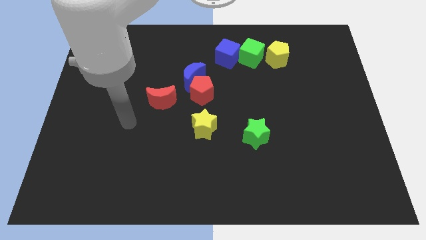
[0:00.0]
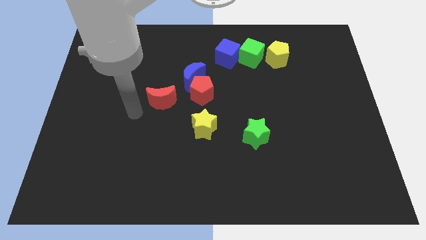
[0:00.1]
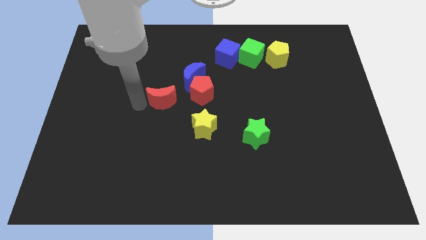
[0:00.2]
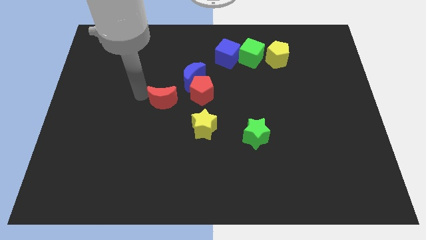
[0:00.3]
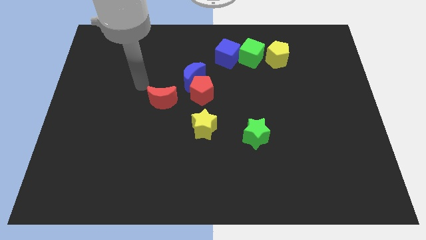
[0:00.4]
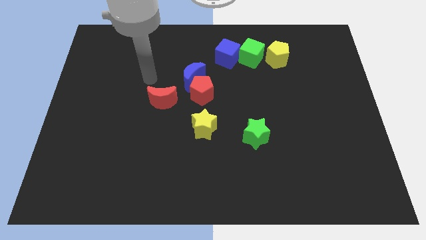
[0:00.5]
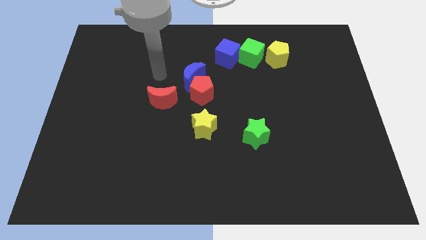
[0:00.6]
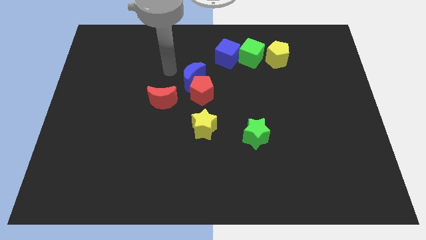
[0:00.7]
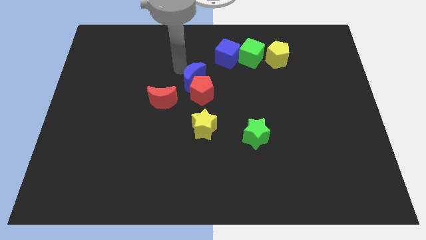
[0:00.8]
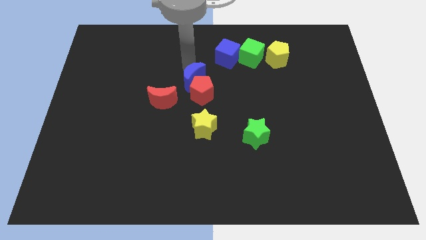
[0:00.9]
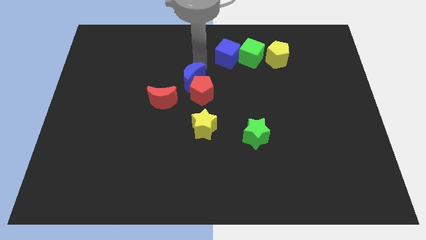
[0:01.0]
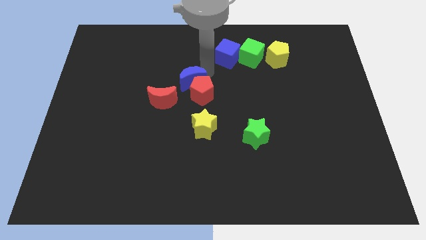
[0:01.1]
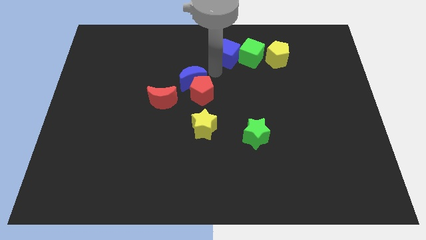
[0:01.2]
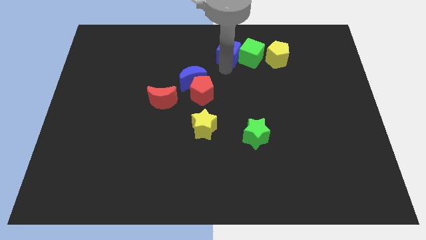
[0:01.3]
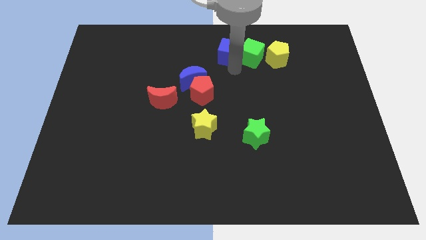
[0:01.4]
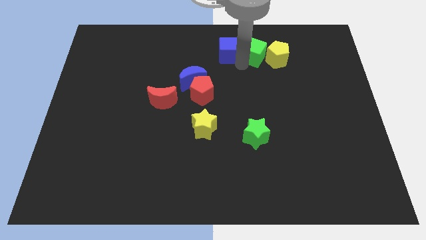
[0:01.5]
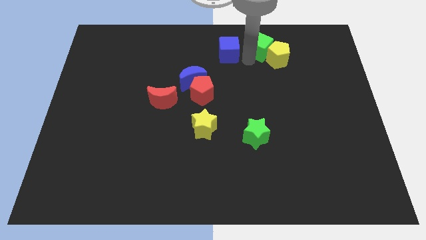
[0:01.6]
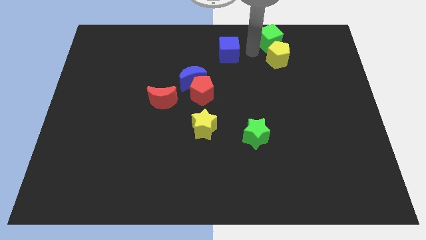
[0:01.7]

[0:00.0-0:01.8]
pull the blue cube apart from the green cube

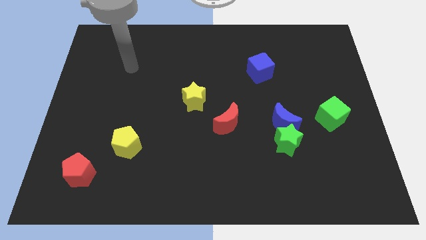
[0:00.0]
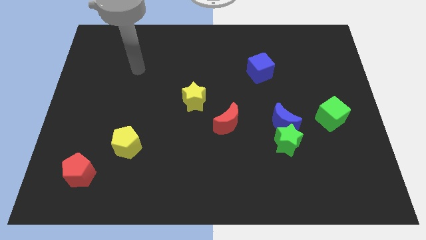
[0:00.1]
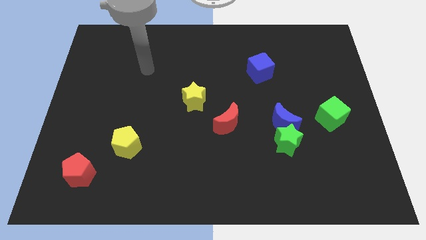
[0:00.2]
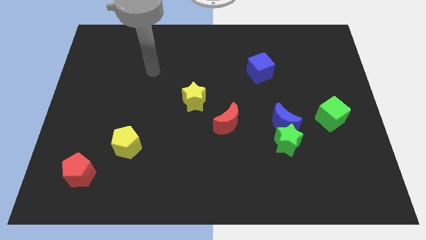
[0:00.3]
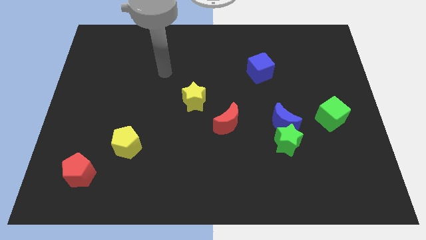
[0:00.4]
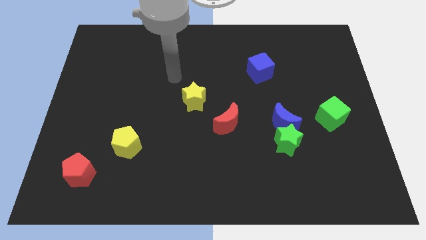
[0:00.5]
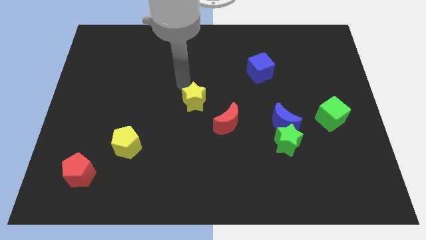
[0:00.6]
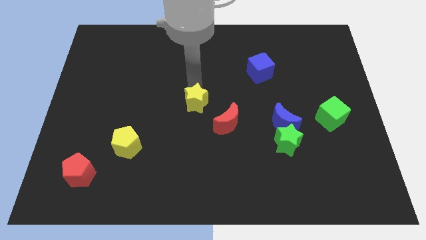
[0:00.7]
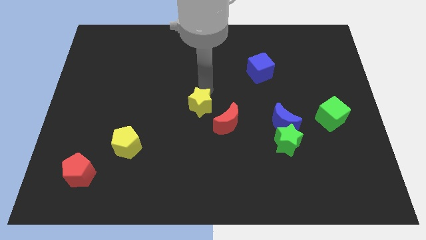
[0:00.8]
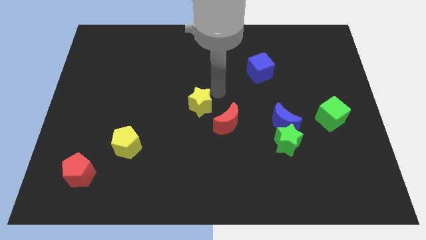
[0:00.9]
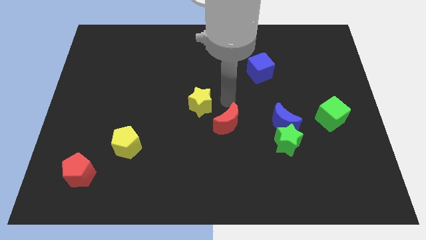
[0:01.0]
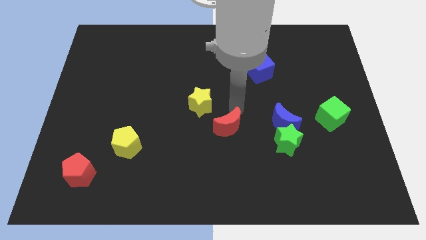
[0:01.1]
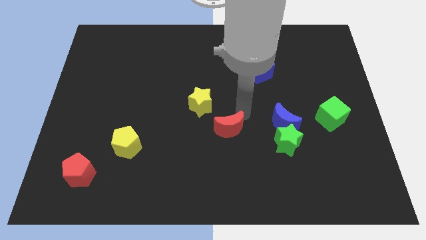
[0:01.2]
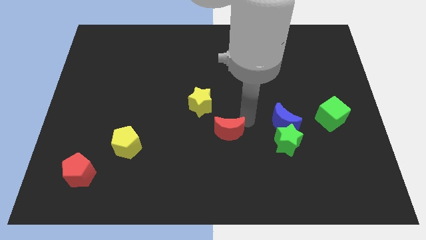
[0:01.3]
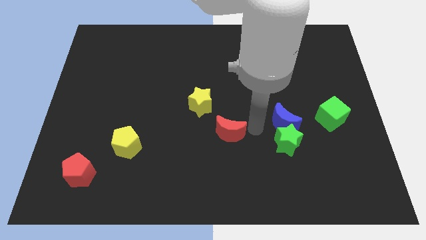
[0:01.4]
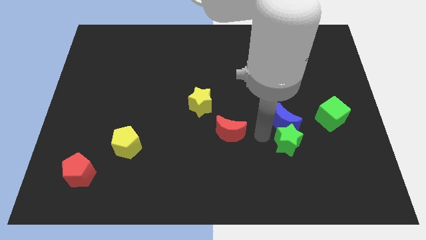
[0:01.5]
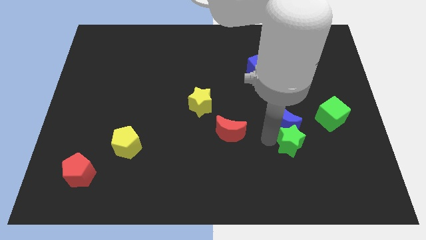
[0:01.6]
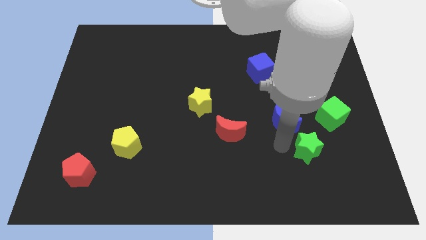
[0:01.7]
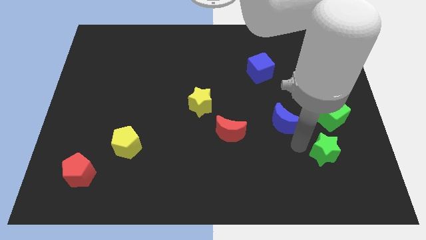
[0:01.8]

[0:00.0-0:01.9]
separate the blue moon from the green star

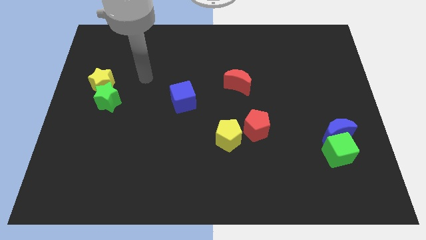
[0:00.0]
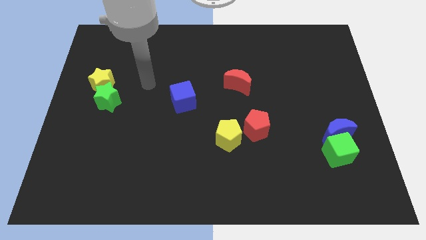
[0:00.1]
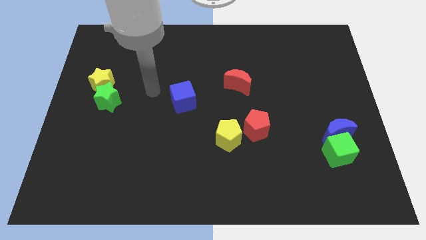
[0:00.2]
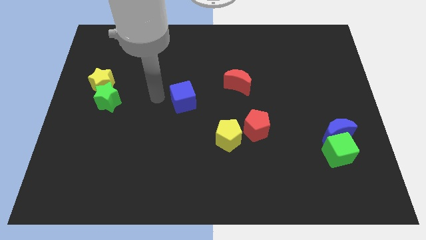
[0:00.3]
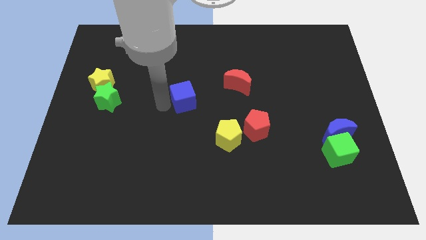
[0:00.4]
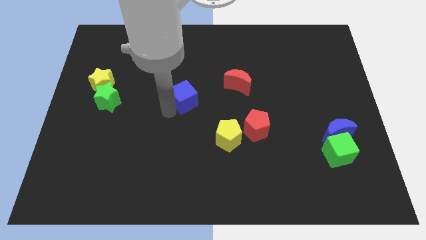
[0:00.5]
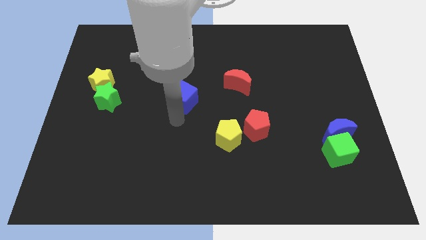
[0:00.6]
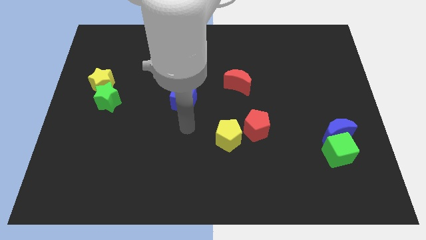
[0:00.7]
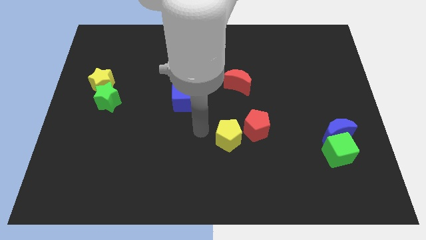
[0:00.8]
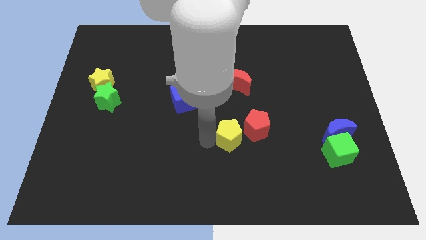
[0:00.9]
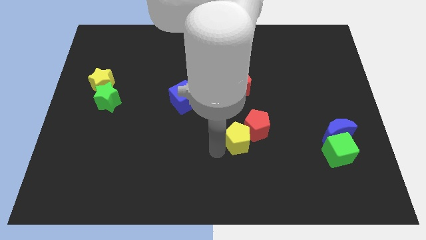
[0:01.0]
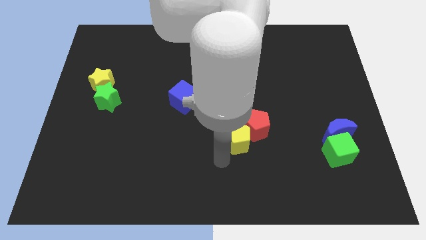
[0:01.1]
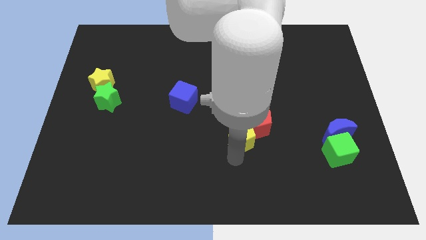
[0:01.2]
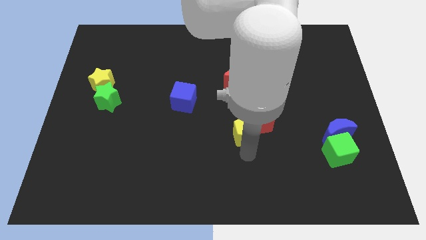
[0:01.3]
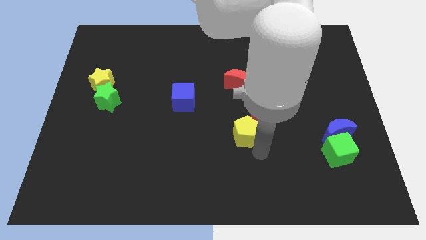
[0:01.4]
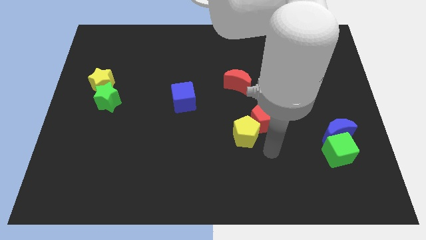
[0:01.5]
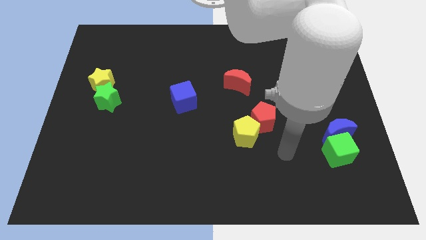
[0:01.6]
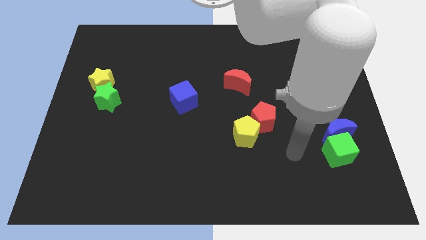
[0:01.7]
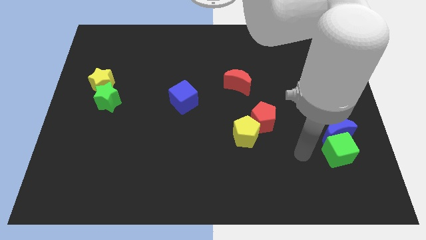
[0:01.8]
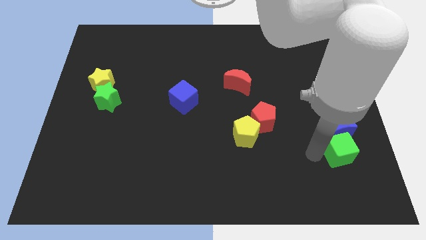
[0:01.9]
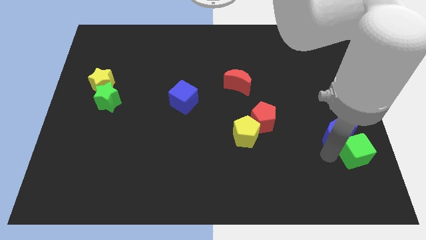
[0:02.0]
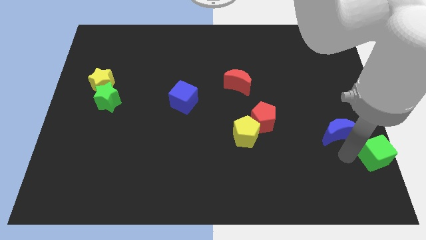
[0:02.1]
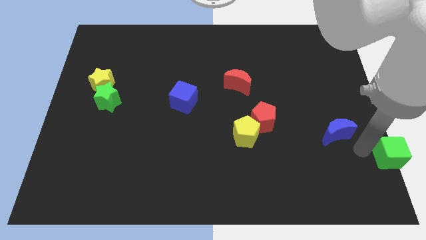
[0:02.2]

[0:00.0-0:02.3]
move the blue moon away from the green cube

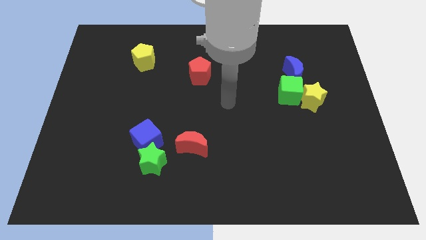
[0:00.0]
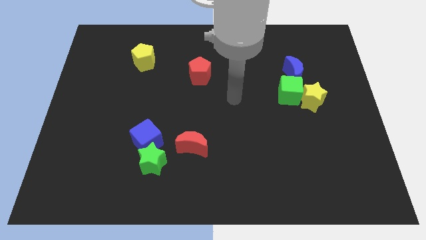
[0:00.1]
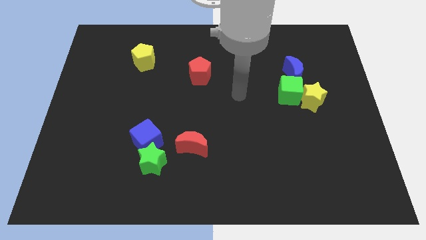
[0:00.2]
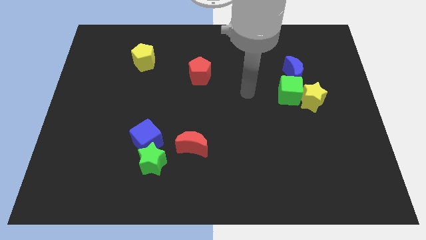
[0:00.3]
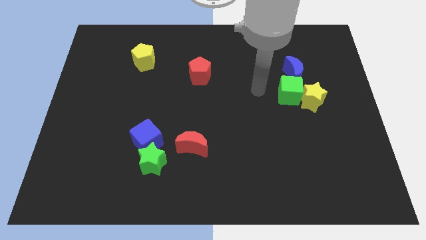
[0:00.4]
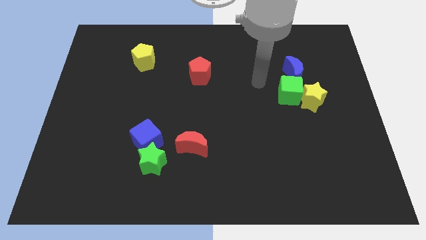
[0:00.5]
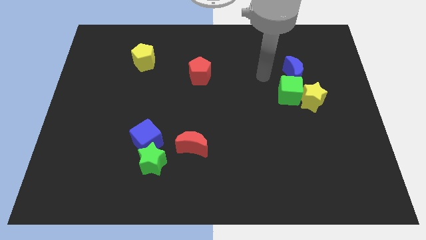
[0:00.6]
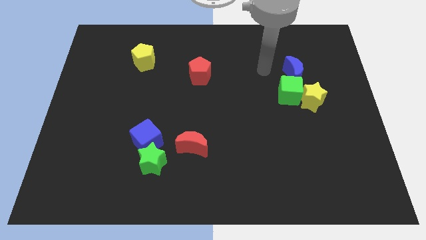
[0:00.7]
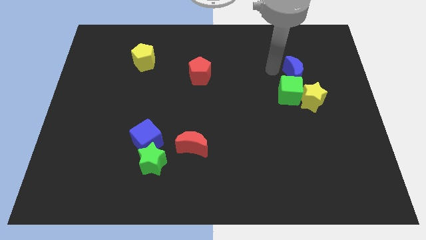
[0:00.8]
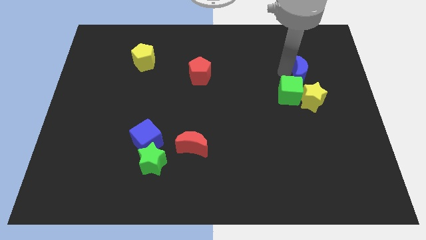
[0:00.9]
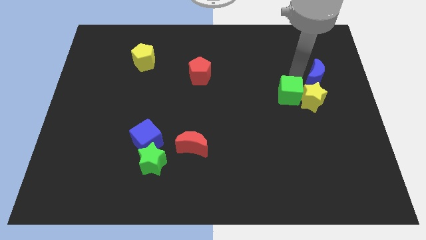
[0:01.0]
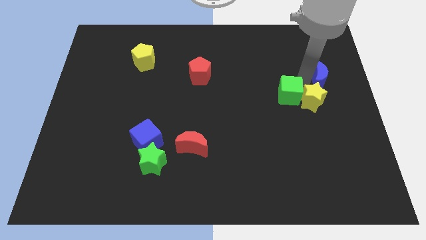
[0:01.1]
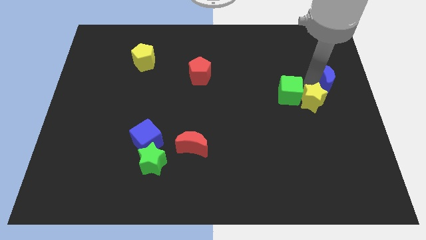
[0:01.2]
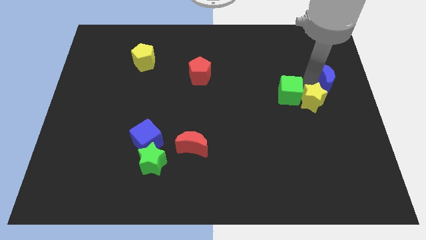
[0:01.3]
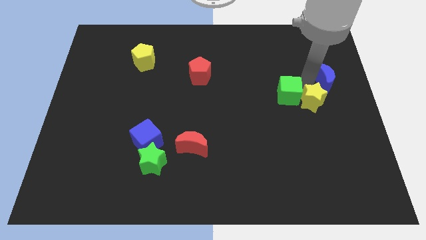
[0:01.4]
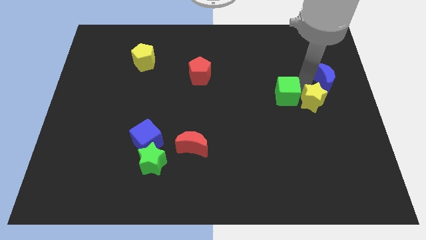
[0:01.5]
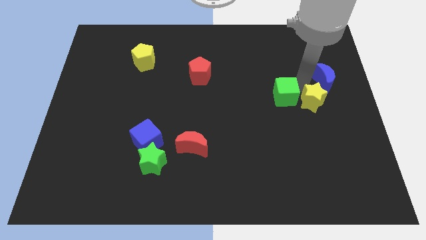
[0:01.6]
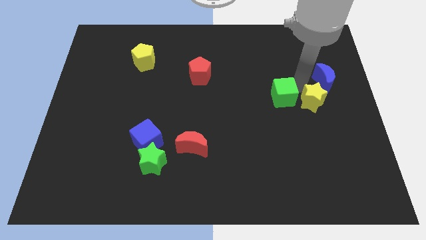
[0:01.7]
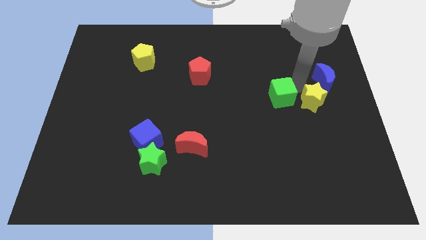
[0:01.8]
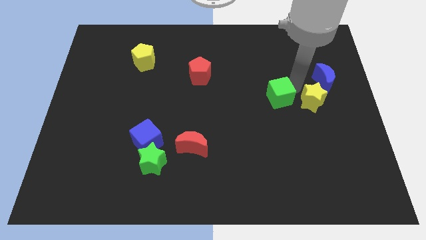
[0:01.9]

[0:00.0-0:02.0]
move the green cube away from the yellow star and blue moon

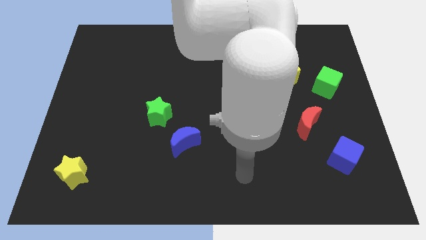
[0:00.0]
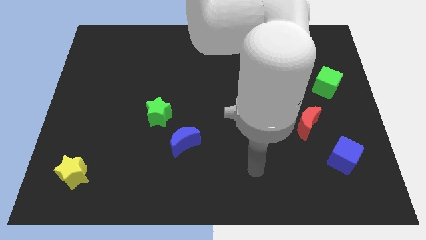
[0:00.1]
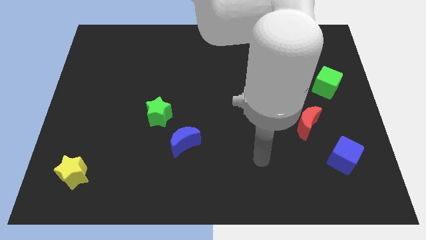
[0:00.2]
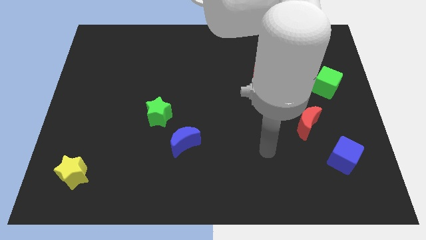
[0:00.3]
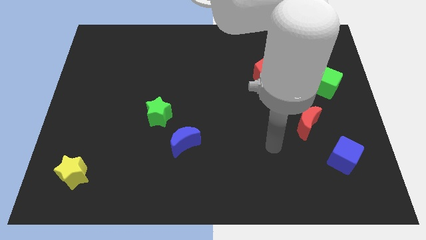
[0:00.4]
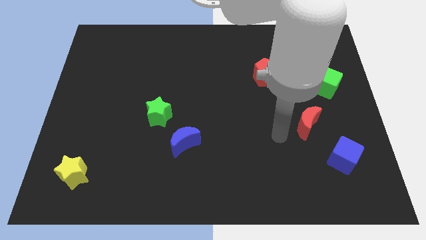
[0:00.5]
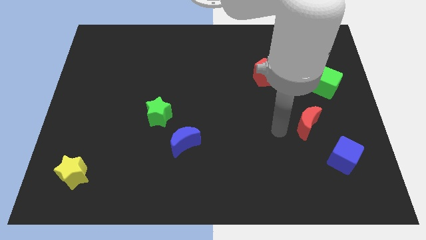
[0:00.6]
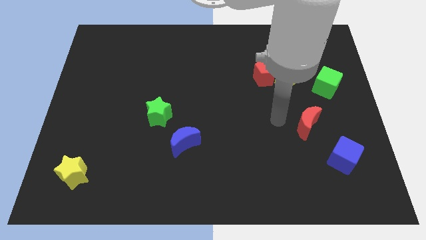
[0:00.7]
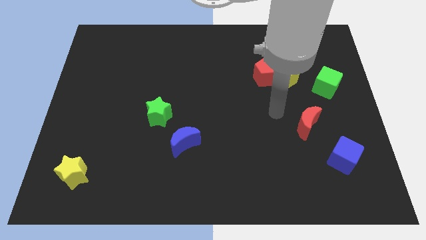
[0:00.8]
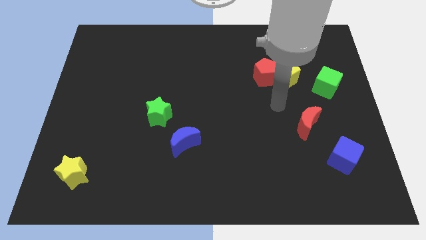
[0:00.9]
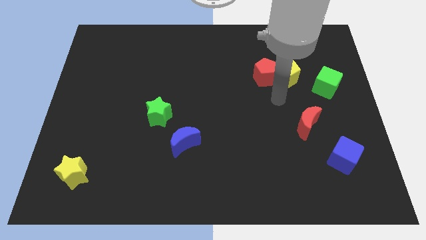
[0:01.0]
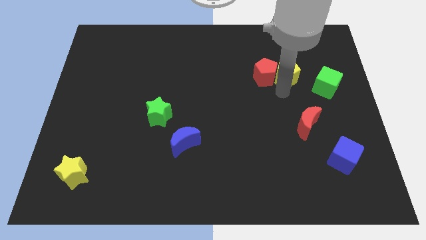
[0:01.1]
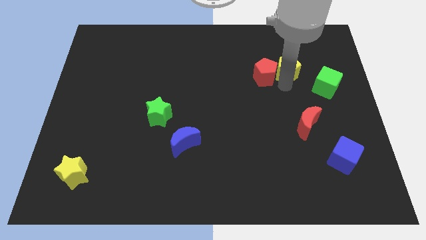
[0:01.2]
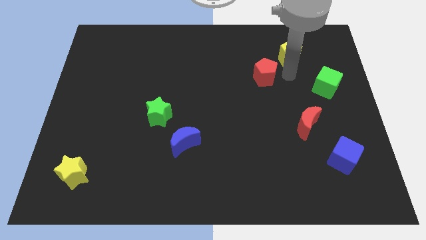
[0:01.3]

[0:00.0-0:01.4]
separate the red pentagon from the yellow pentagon
